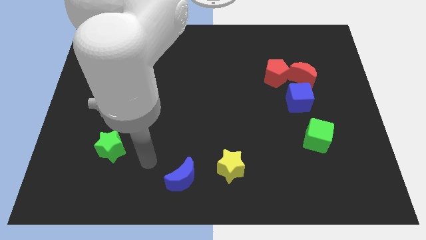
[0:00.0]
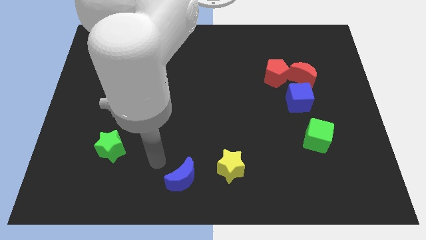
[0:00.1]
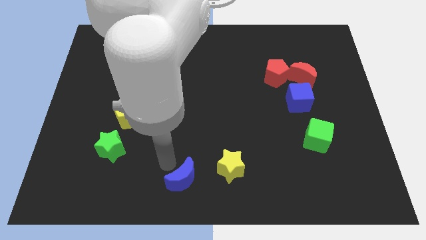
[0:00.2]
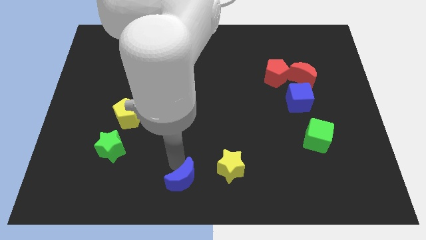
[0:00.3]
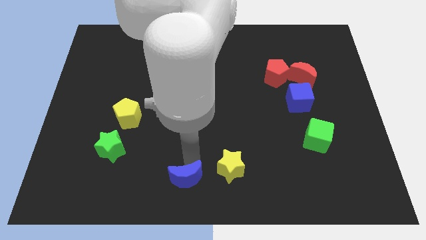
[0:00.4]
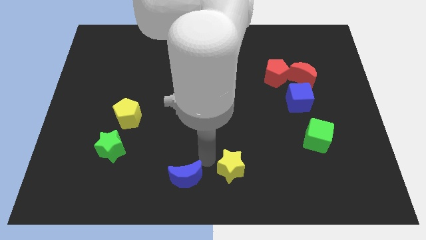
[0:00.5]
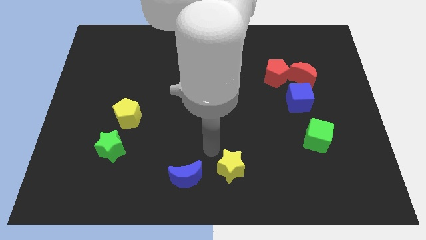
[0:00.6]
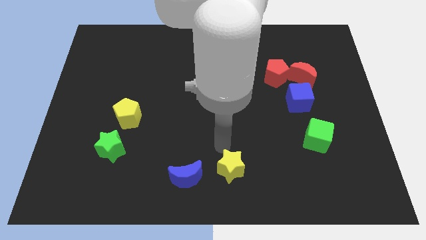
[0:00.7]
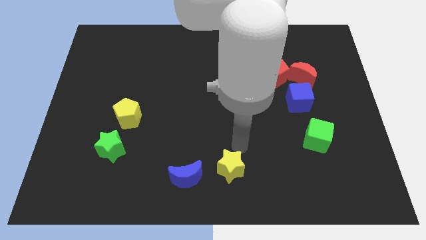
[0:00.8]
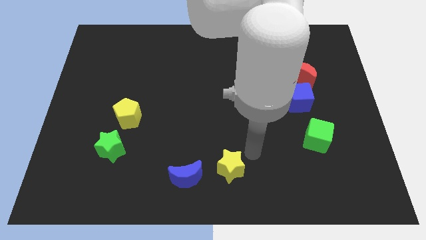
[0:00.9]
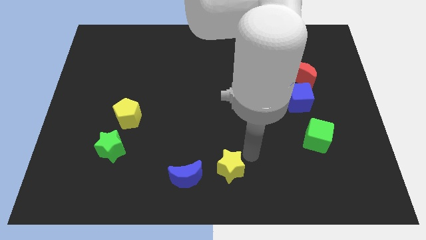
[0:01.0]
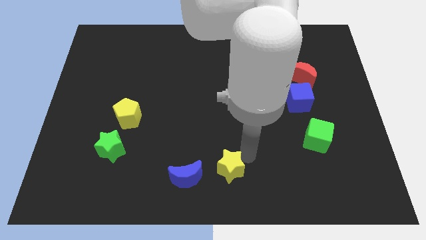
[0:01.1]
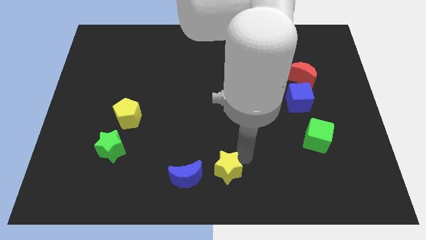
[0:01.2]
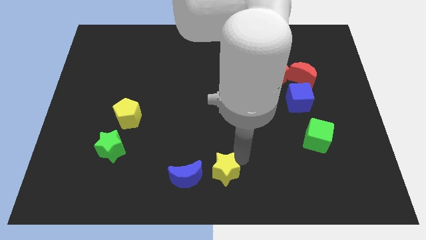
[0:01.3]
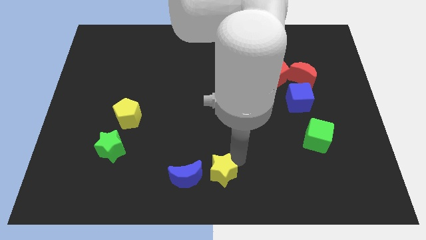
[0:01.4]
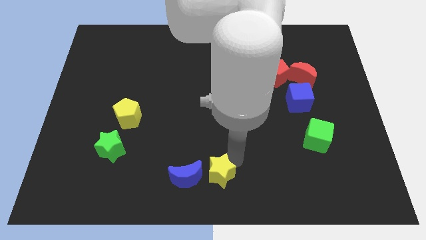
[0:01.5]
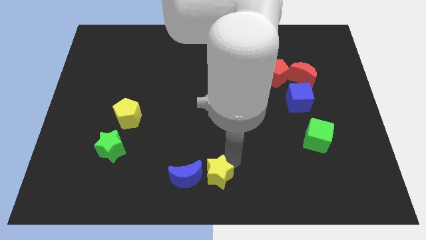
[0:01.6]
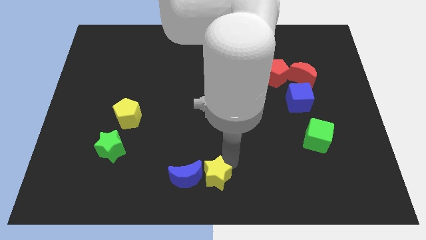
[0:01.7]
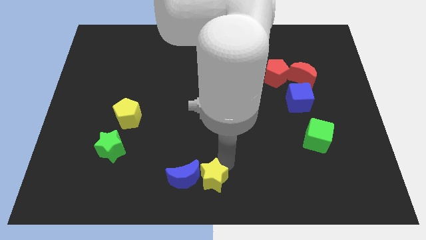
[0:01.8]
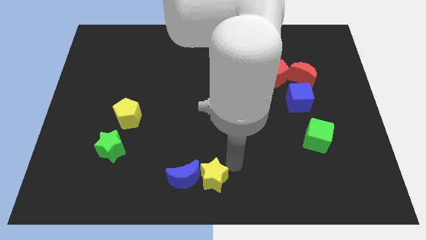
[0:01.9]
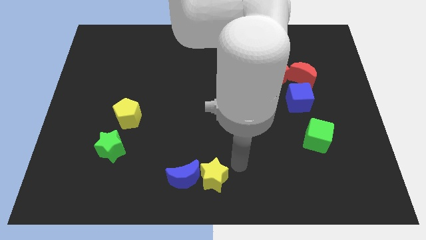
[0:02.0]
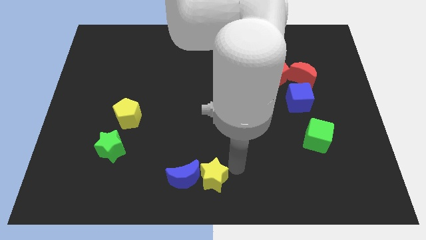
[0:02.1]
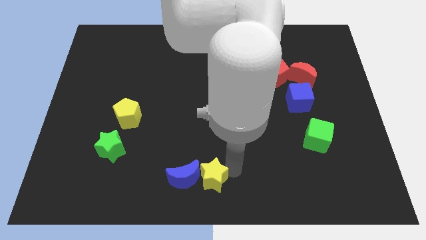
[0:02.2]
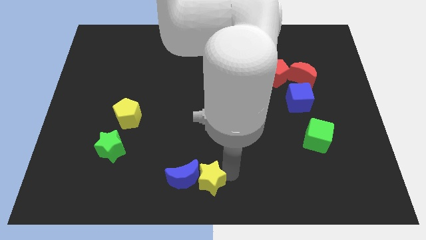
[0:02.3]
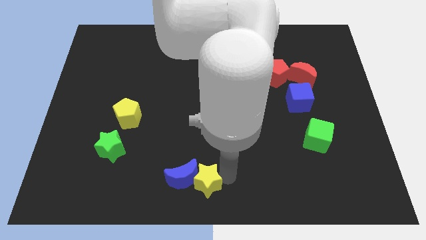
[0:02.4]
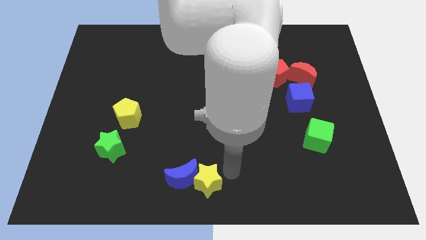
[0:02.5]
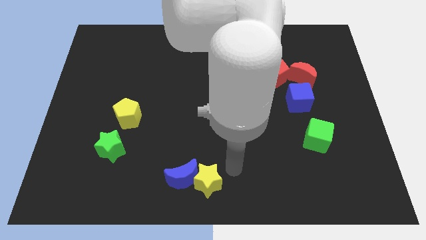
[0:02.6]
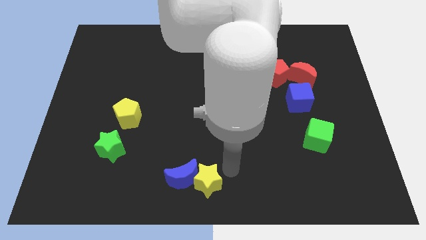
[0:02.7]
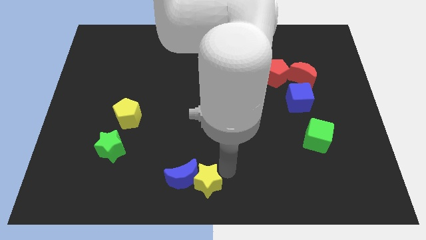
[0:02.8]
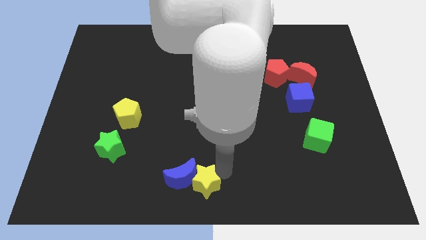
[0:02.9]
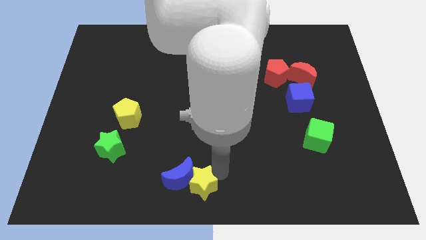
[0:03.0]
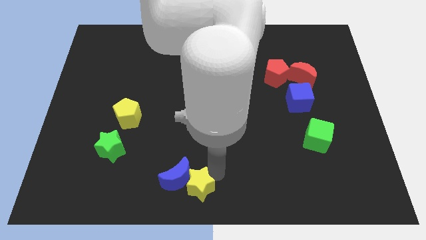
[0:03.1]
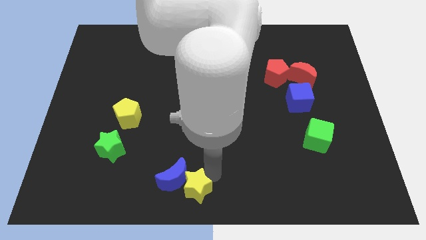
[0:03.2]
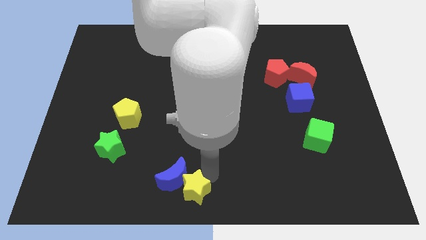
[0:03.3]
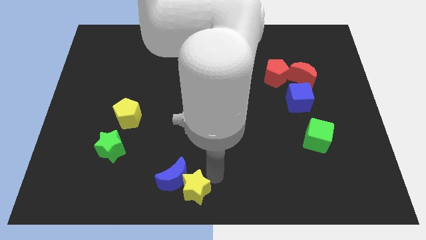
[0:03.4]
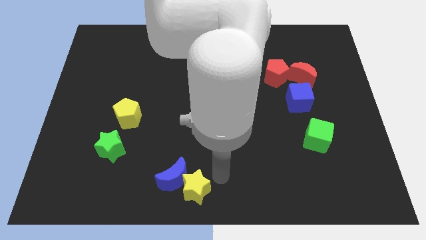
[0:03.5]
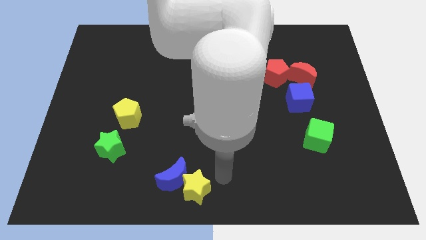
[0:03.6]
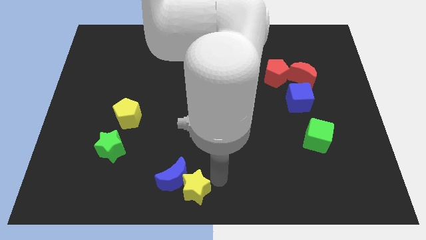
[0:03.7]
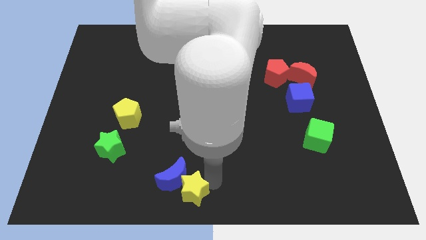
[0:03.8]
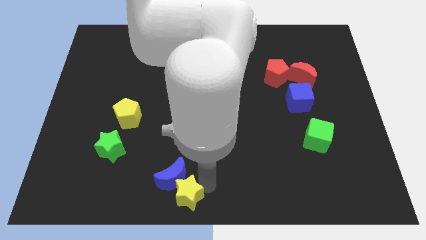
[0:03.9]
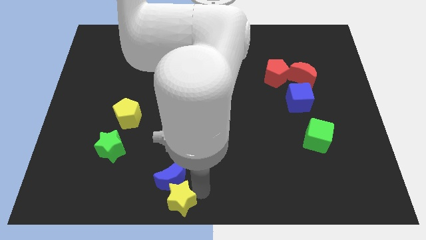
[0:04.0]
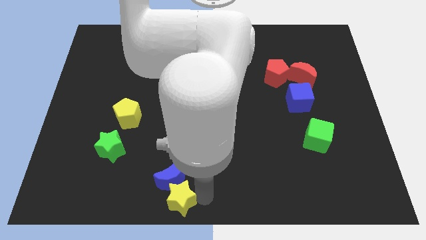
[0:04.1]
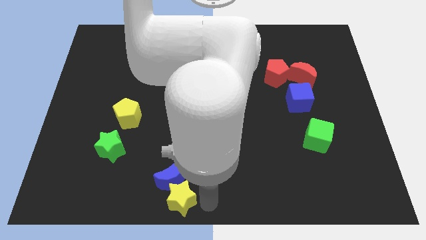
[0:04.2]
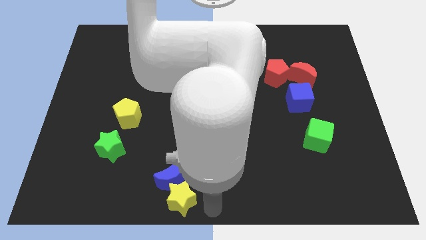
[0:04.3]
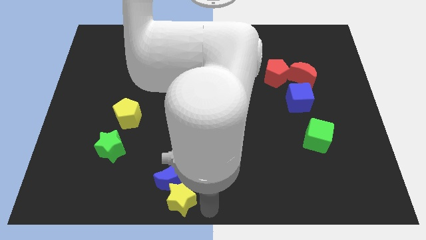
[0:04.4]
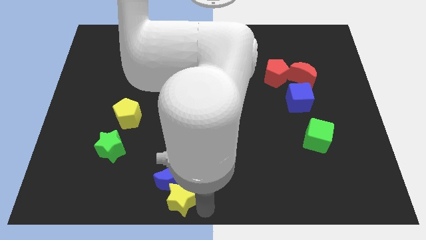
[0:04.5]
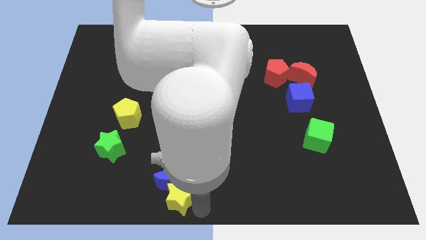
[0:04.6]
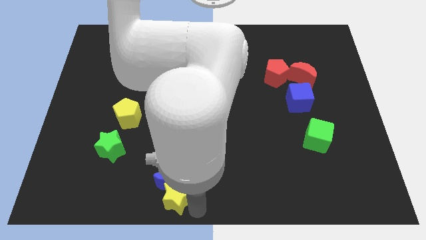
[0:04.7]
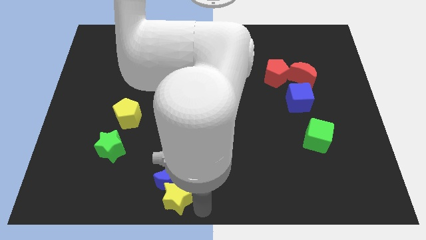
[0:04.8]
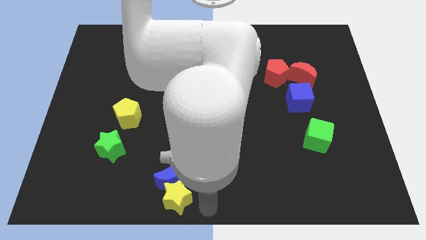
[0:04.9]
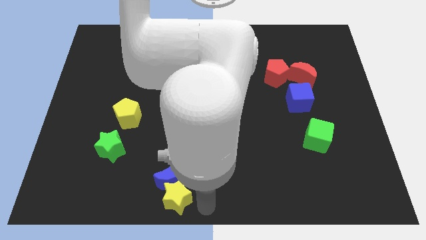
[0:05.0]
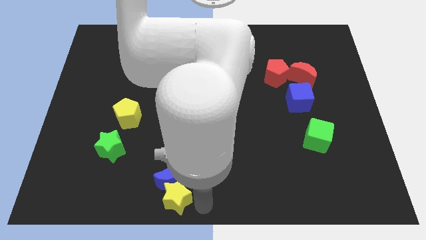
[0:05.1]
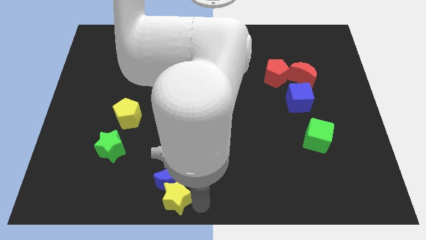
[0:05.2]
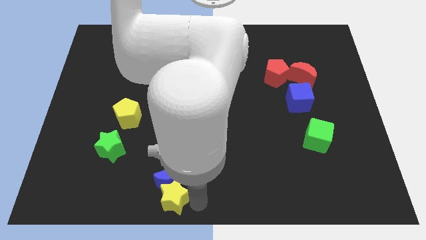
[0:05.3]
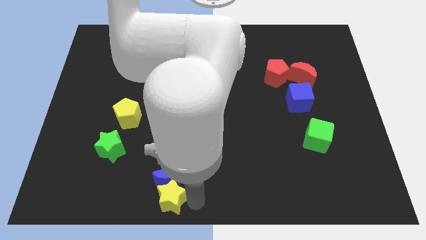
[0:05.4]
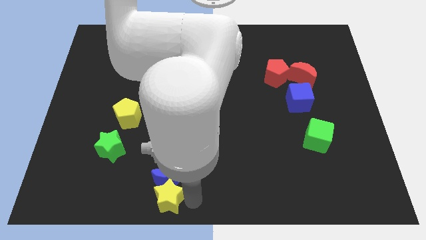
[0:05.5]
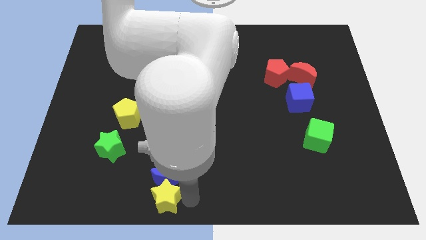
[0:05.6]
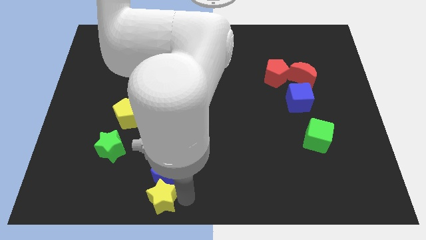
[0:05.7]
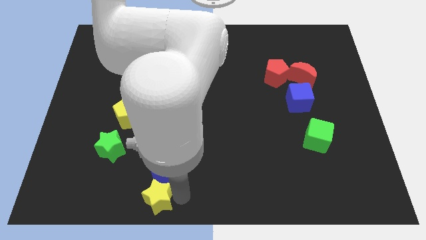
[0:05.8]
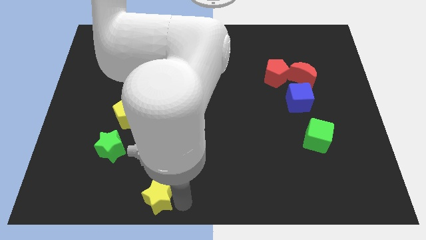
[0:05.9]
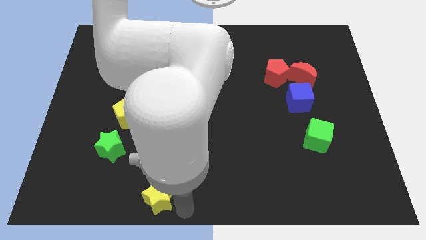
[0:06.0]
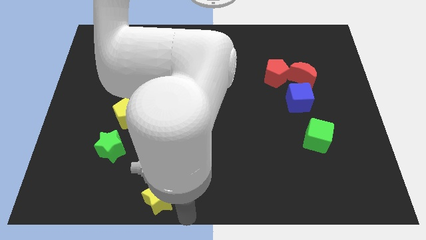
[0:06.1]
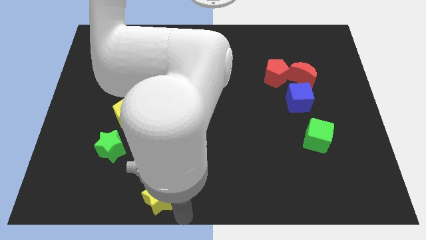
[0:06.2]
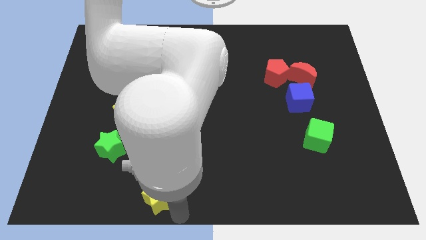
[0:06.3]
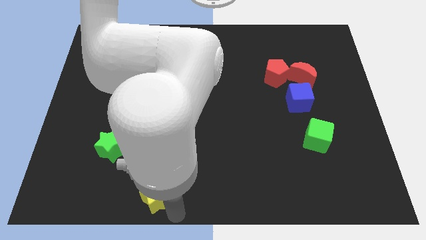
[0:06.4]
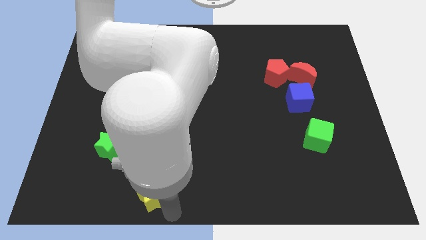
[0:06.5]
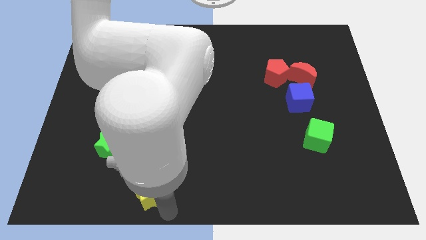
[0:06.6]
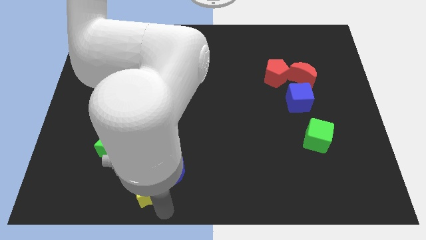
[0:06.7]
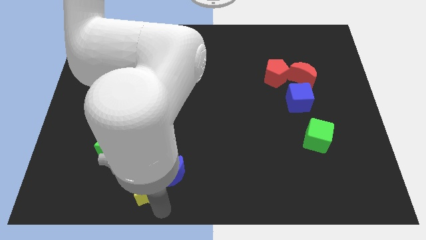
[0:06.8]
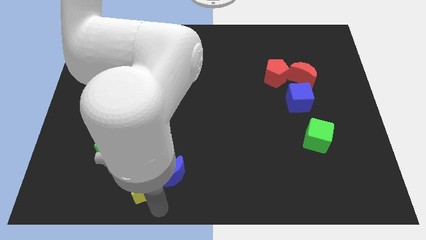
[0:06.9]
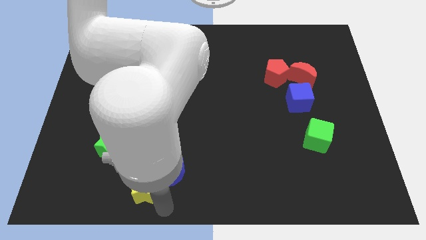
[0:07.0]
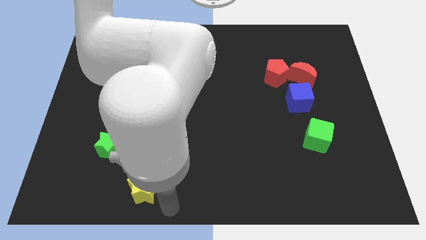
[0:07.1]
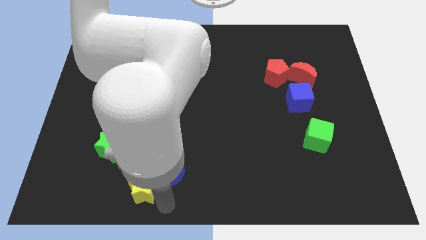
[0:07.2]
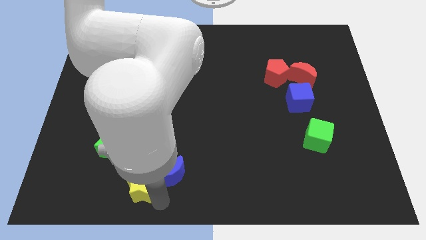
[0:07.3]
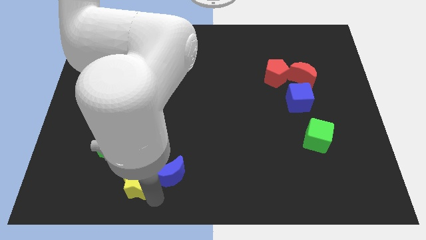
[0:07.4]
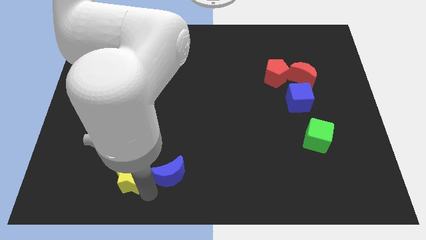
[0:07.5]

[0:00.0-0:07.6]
move the yellow star to the left
